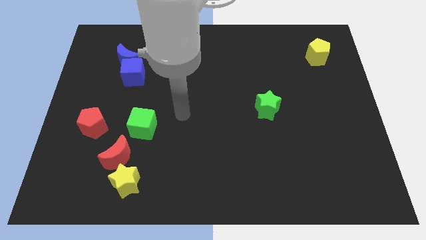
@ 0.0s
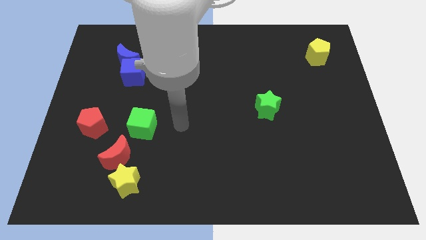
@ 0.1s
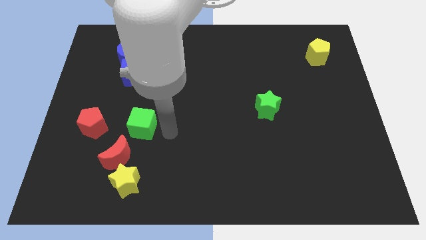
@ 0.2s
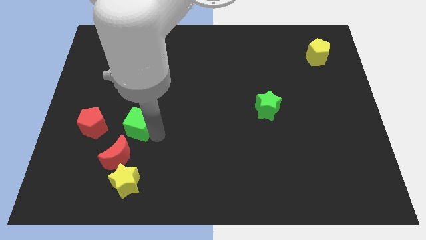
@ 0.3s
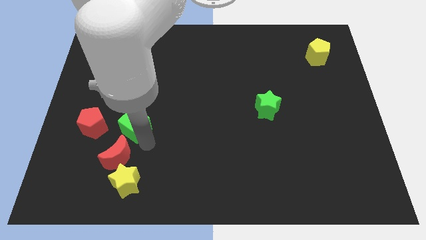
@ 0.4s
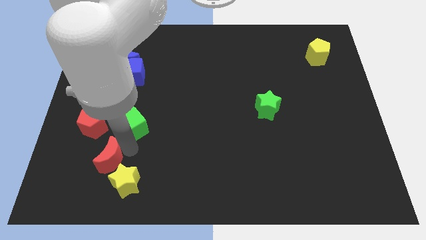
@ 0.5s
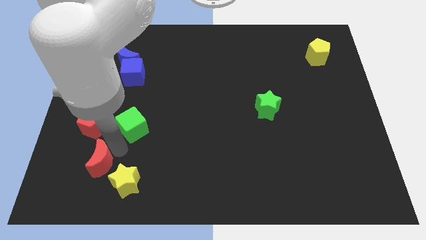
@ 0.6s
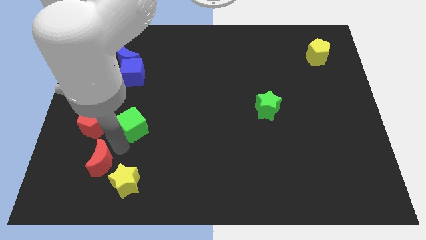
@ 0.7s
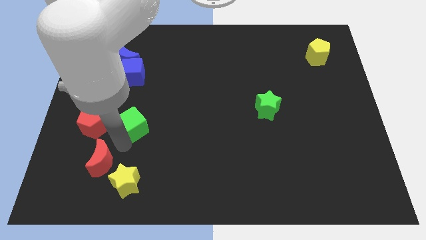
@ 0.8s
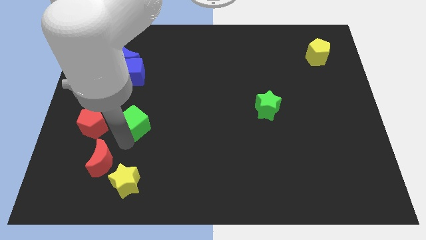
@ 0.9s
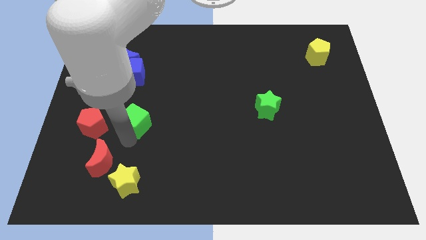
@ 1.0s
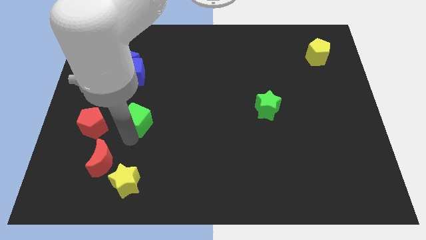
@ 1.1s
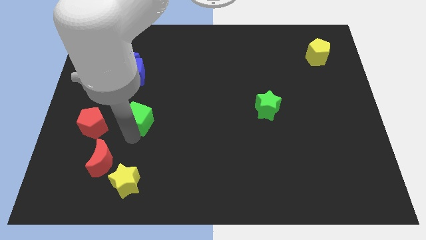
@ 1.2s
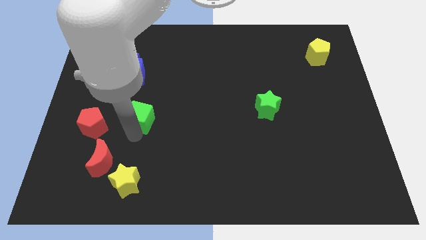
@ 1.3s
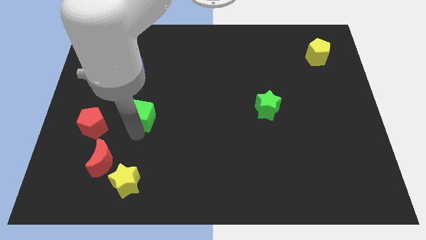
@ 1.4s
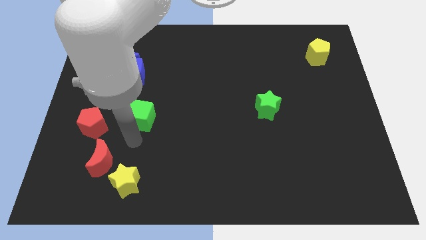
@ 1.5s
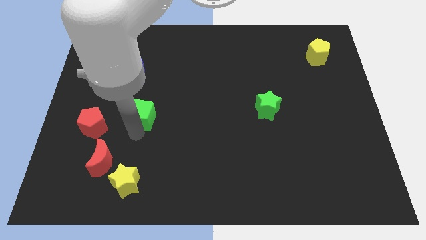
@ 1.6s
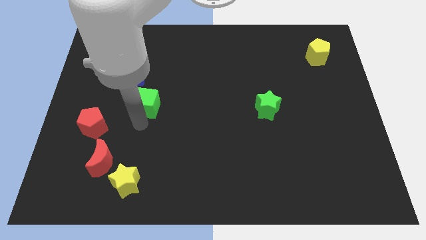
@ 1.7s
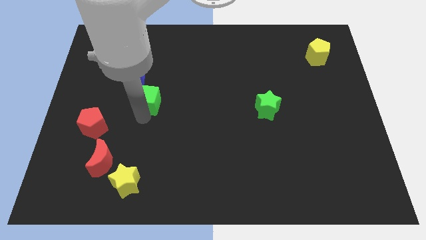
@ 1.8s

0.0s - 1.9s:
slide the green cube upwards a little

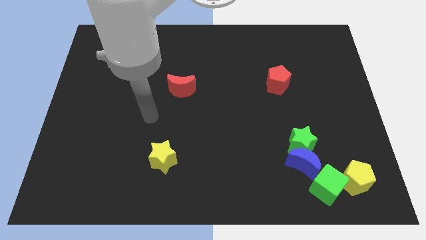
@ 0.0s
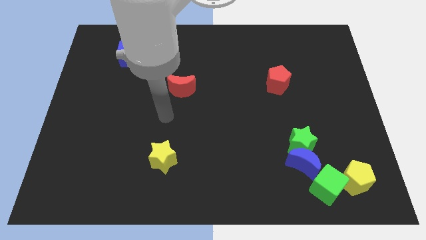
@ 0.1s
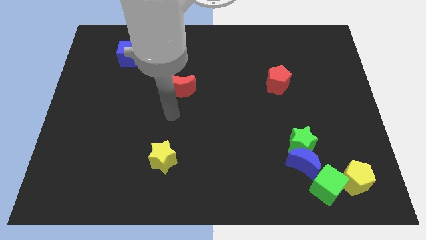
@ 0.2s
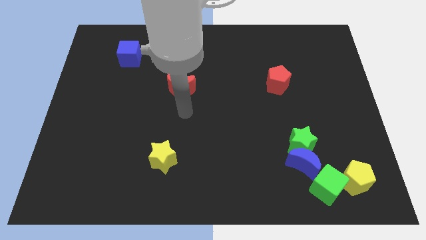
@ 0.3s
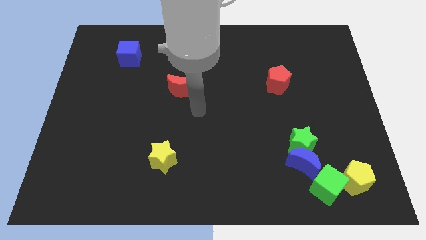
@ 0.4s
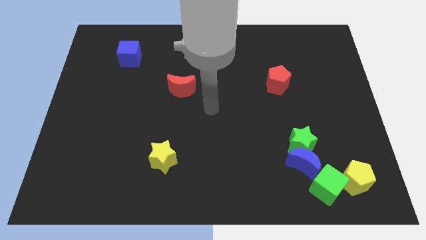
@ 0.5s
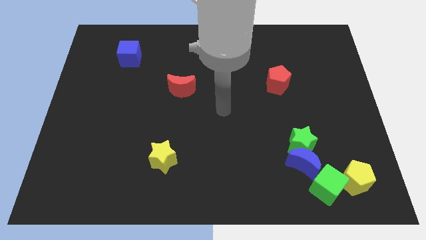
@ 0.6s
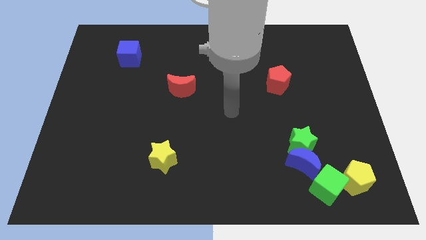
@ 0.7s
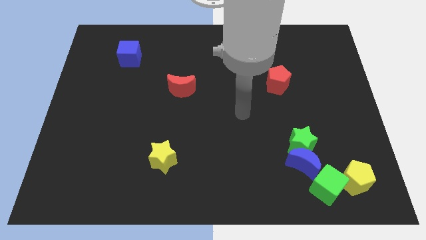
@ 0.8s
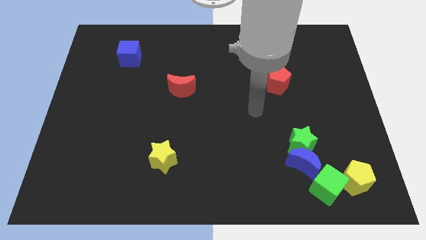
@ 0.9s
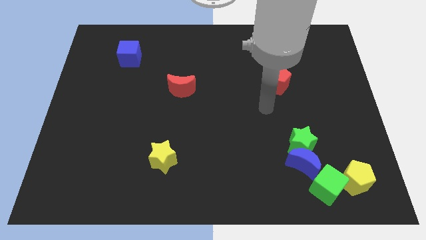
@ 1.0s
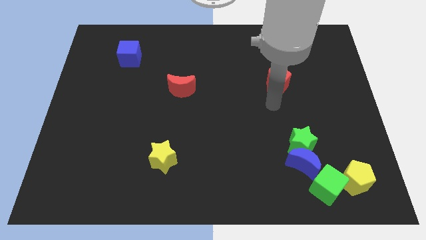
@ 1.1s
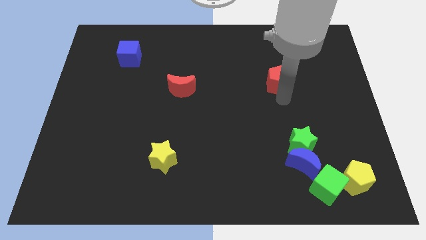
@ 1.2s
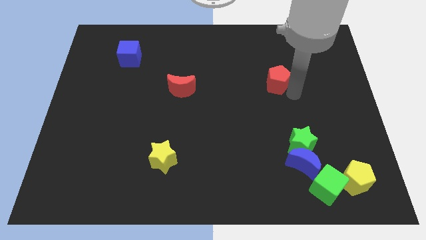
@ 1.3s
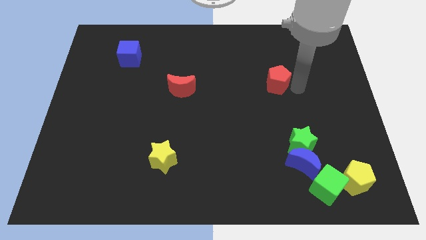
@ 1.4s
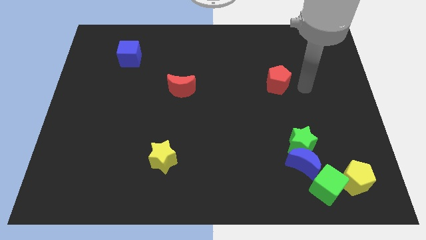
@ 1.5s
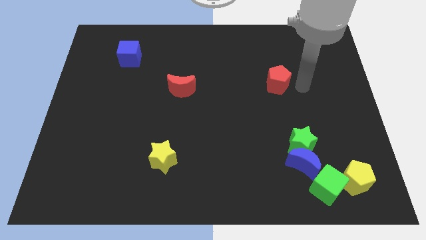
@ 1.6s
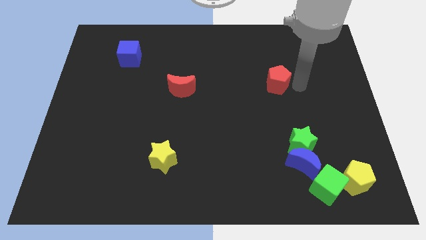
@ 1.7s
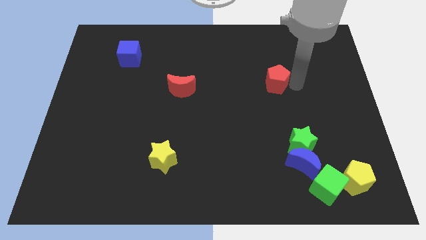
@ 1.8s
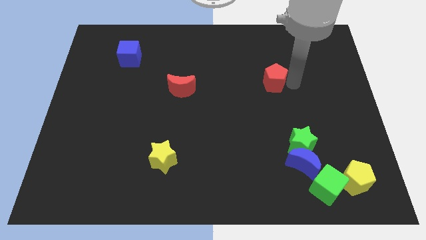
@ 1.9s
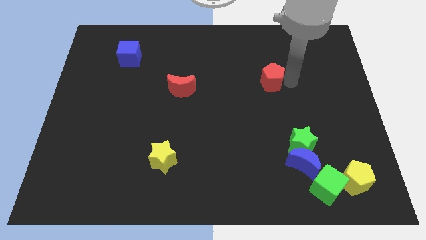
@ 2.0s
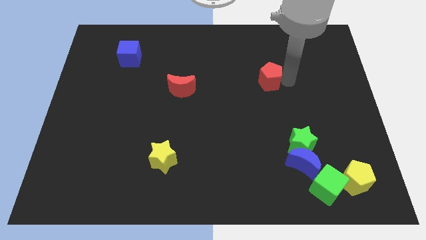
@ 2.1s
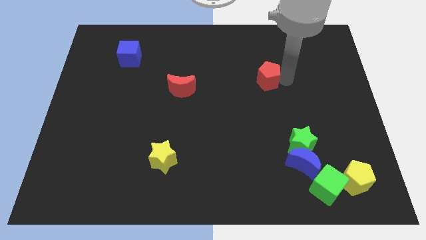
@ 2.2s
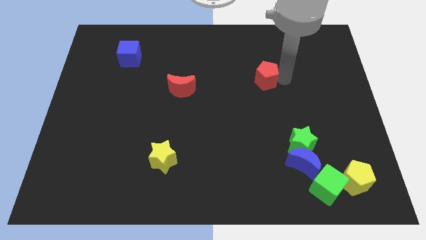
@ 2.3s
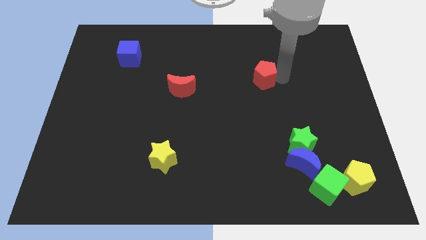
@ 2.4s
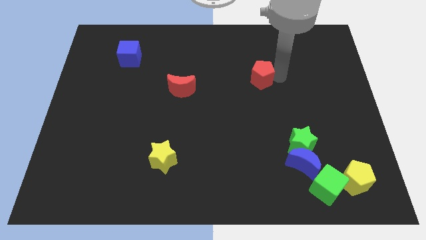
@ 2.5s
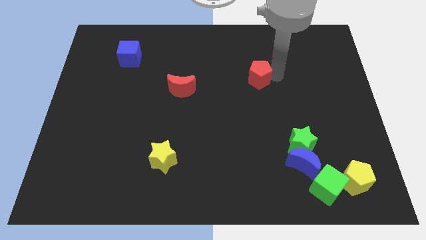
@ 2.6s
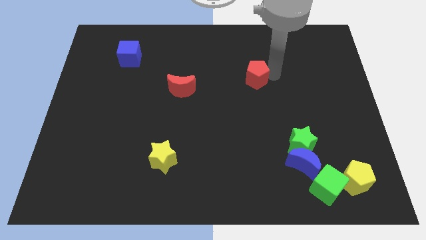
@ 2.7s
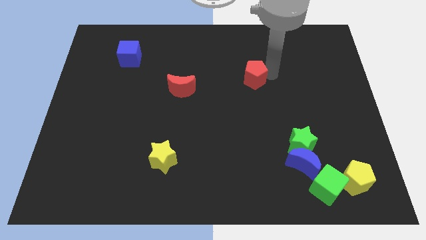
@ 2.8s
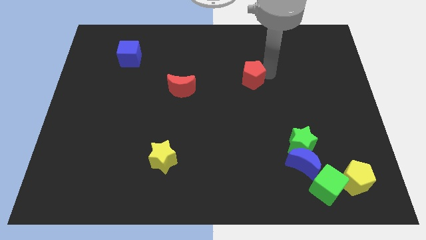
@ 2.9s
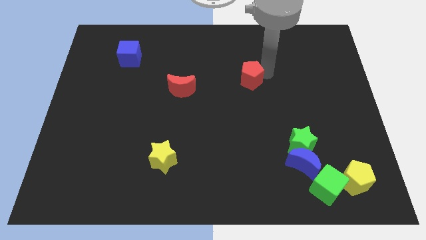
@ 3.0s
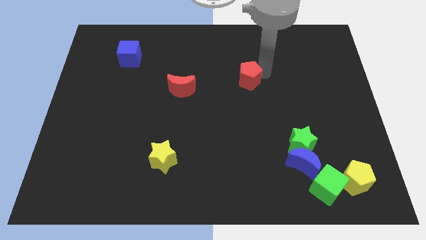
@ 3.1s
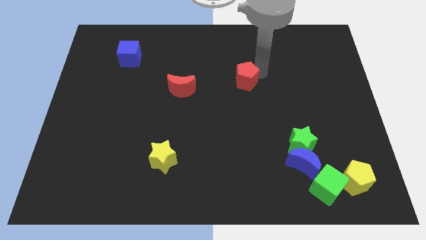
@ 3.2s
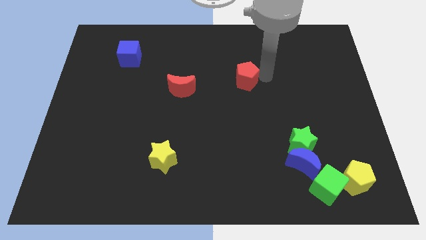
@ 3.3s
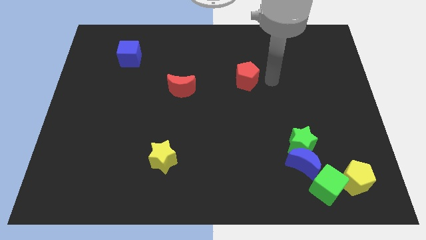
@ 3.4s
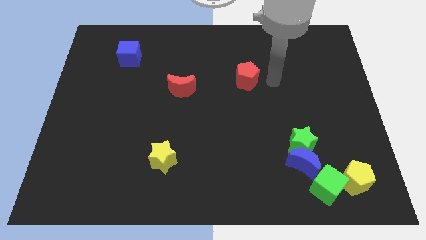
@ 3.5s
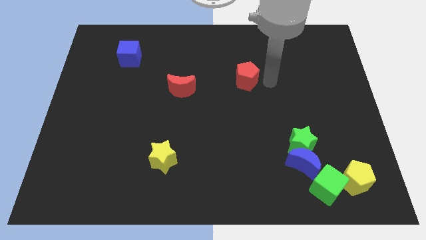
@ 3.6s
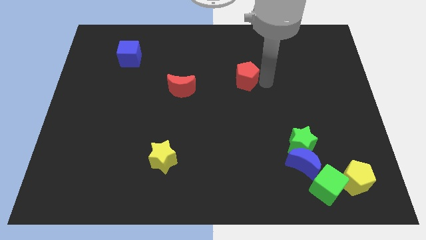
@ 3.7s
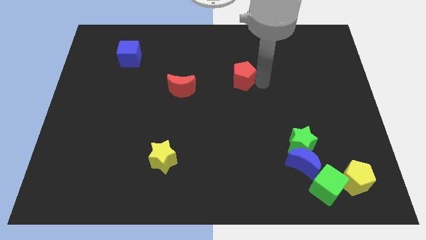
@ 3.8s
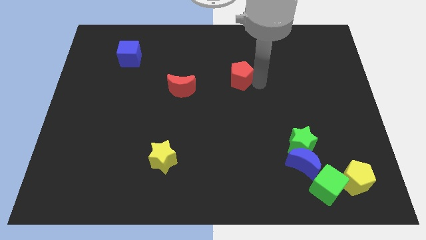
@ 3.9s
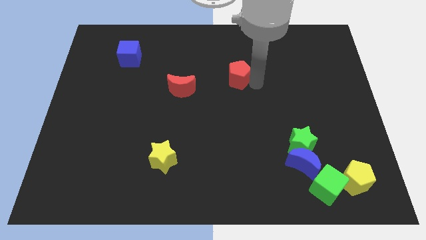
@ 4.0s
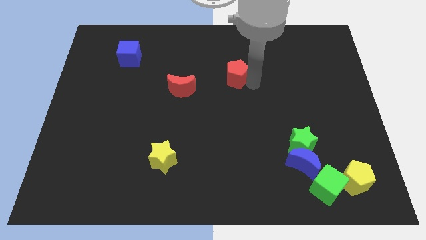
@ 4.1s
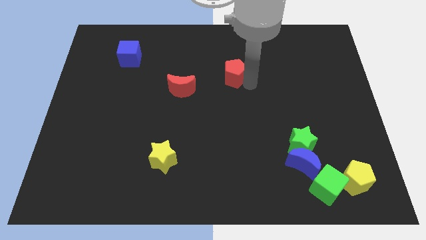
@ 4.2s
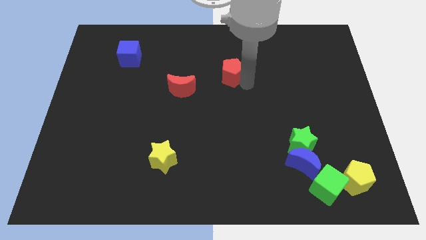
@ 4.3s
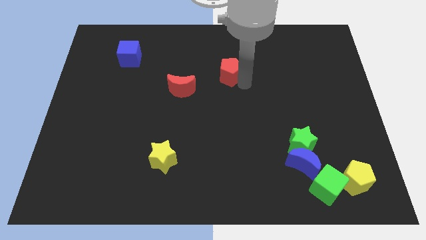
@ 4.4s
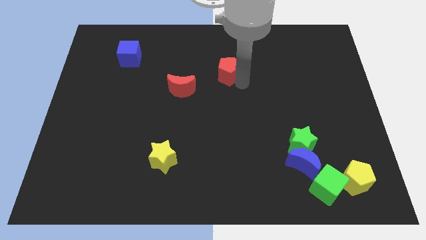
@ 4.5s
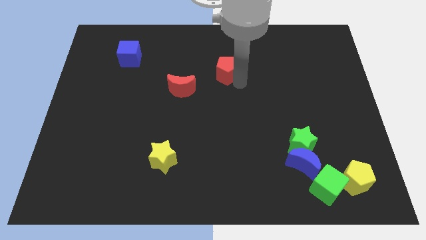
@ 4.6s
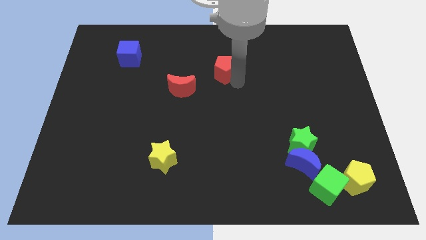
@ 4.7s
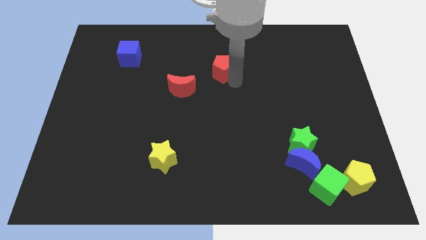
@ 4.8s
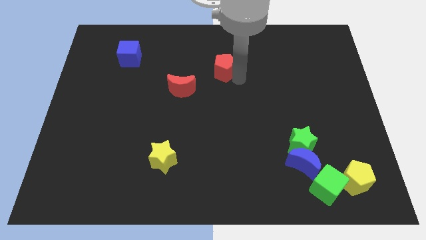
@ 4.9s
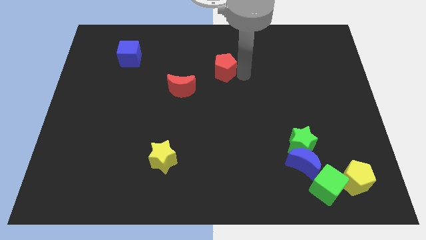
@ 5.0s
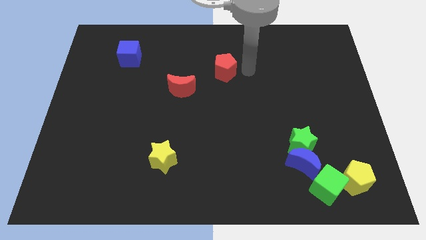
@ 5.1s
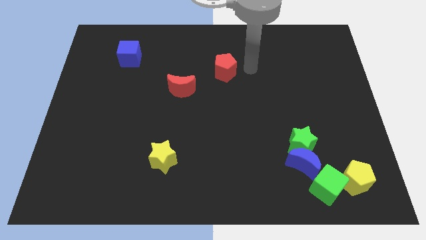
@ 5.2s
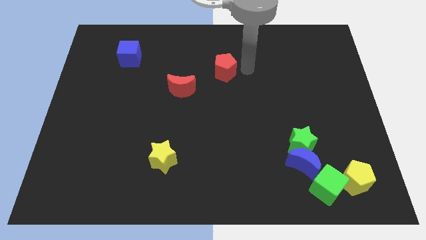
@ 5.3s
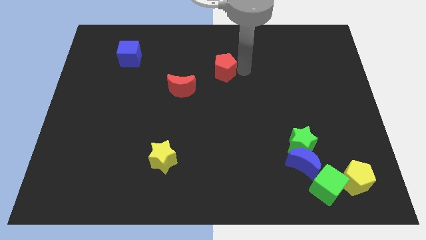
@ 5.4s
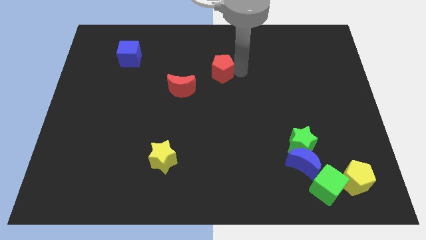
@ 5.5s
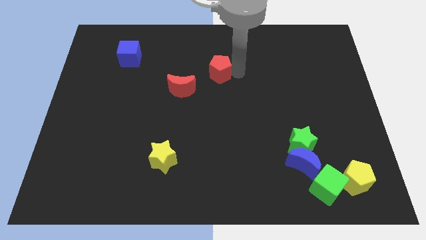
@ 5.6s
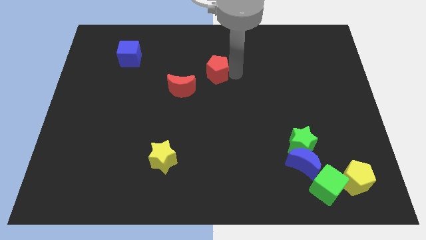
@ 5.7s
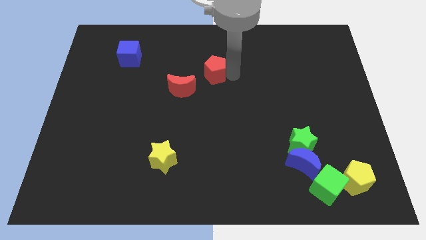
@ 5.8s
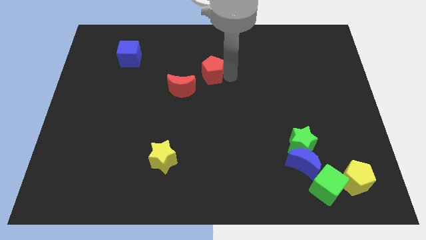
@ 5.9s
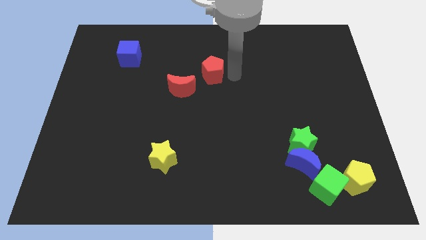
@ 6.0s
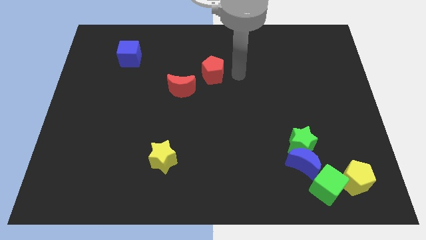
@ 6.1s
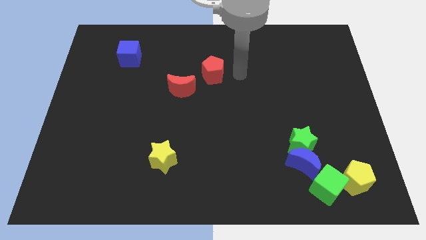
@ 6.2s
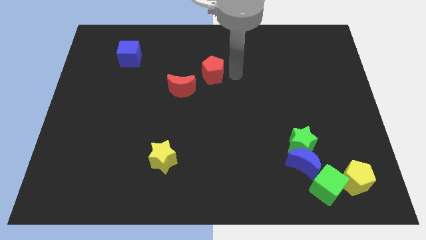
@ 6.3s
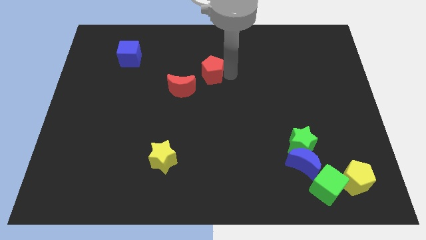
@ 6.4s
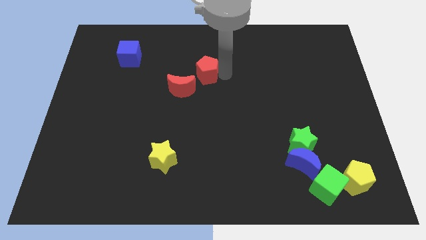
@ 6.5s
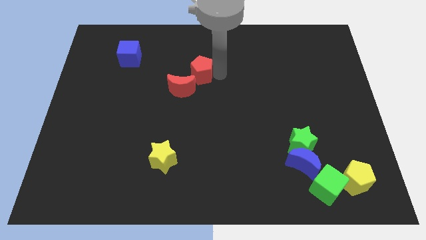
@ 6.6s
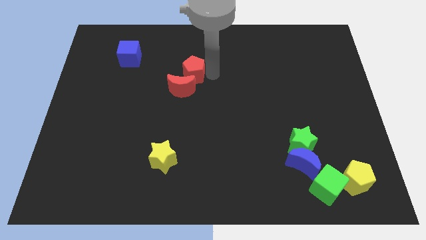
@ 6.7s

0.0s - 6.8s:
push the red pentagon to the left
